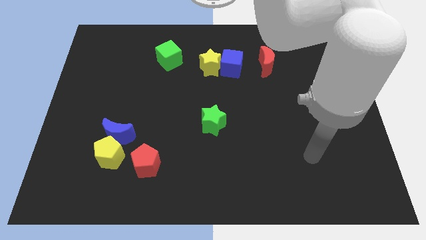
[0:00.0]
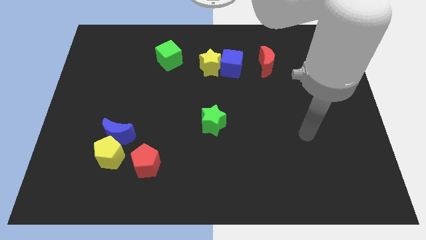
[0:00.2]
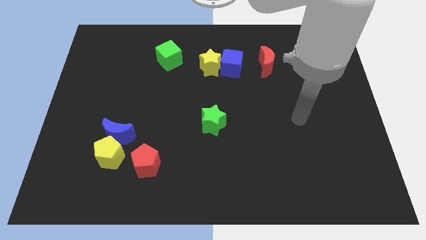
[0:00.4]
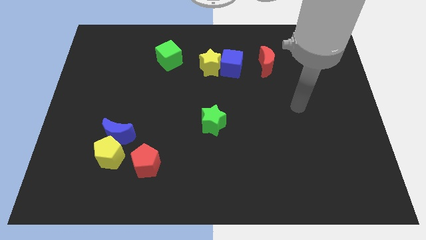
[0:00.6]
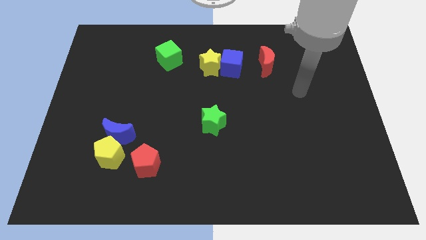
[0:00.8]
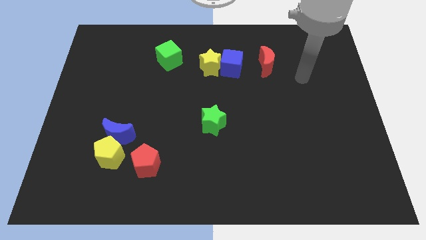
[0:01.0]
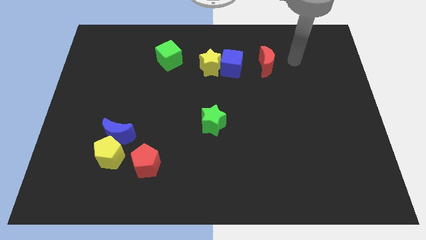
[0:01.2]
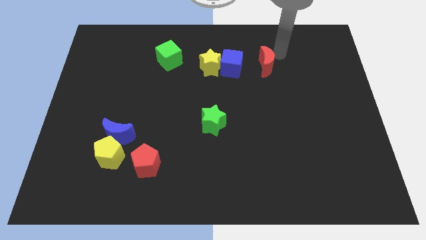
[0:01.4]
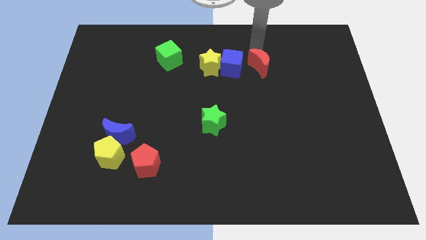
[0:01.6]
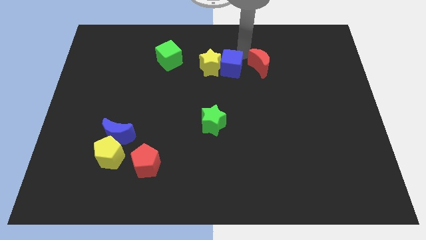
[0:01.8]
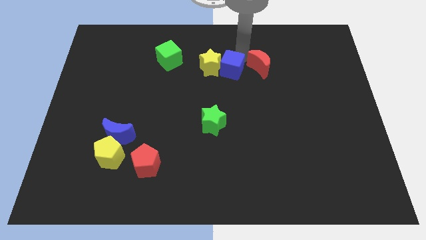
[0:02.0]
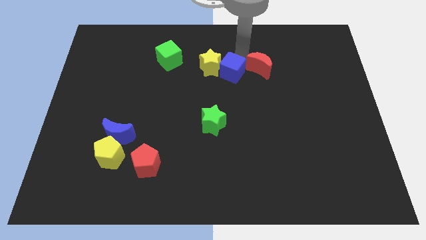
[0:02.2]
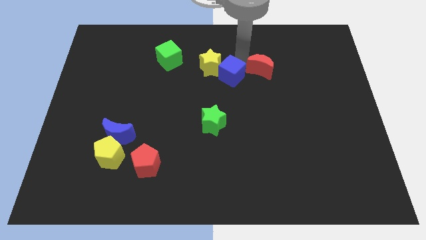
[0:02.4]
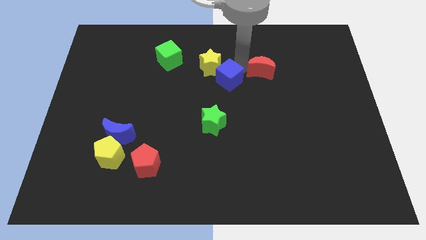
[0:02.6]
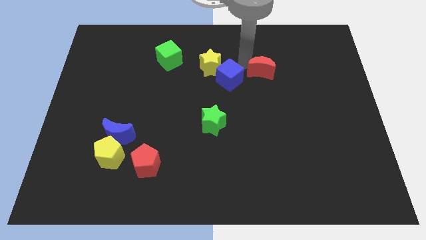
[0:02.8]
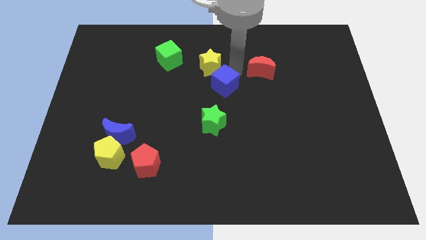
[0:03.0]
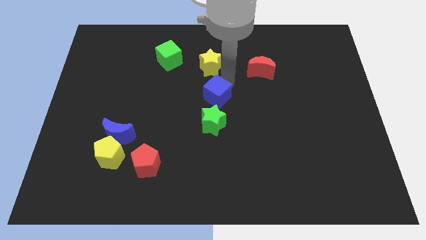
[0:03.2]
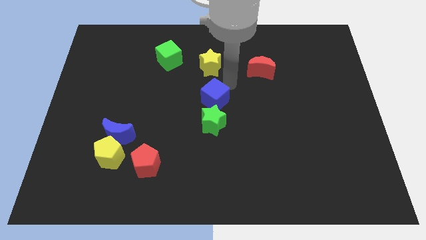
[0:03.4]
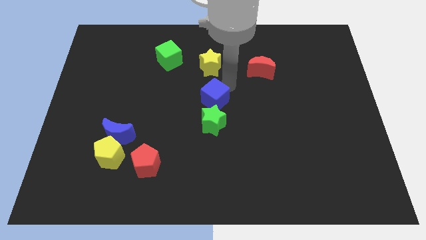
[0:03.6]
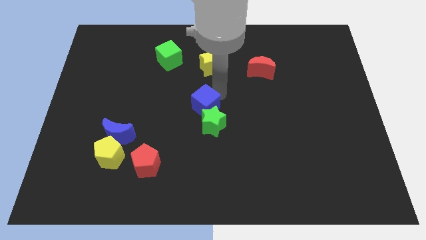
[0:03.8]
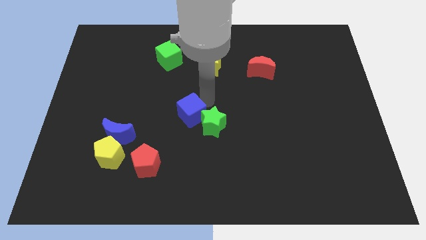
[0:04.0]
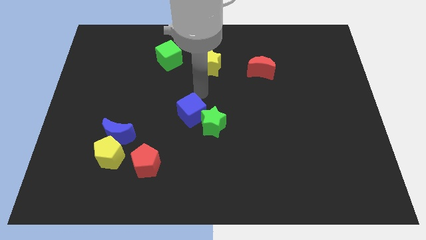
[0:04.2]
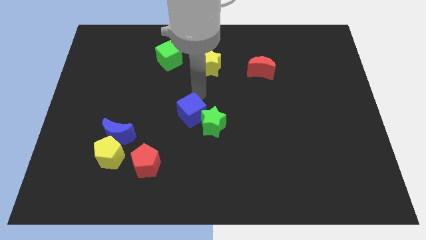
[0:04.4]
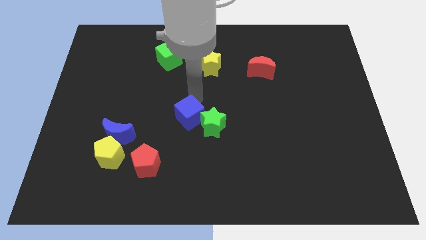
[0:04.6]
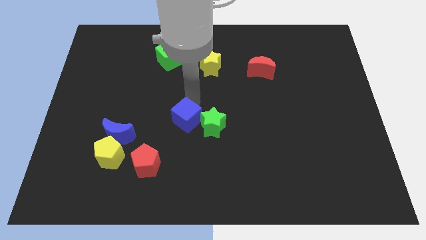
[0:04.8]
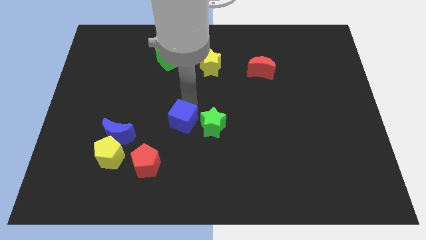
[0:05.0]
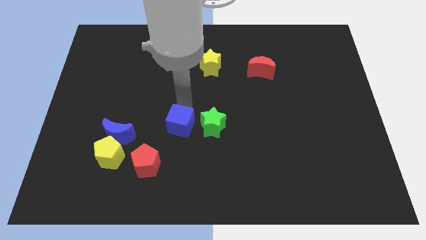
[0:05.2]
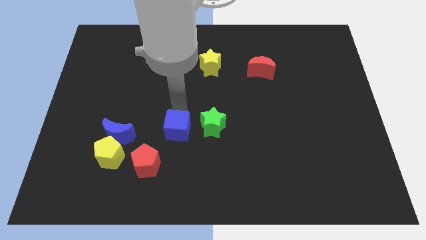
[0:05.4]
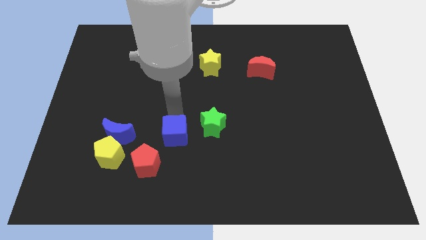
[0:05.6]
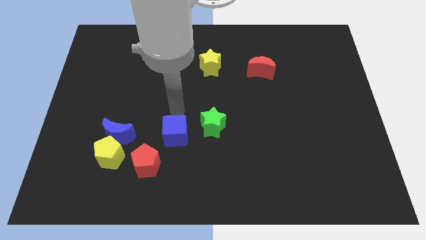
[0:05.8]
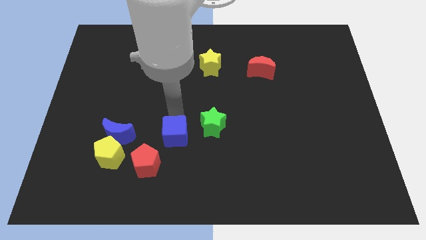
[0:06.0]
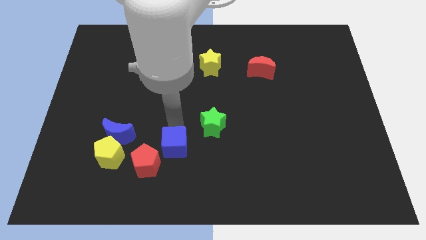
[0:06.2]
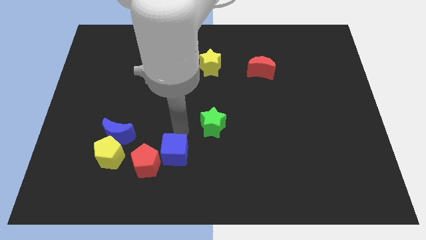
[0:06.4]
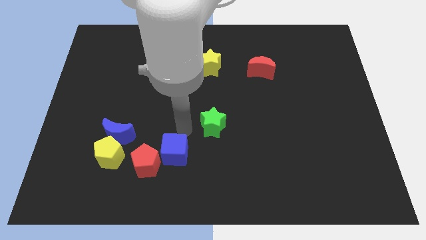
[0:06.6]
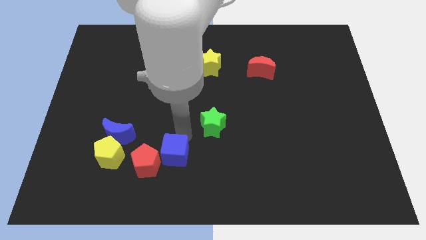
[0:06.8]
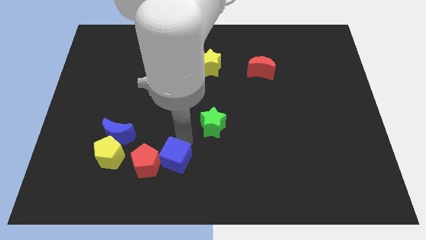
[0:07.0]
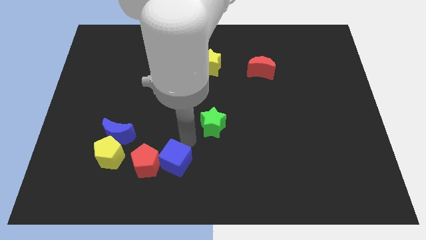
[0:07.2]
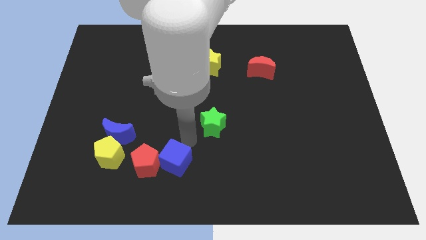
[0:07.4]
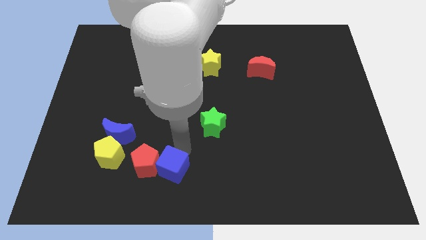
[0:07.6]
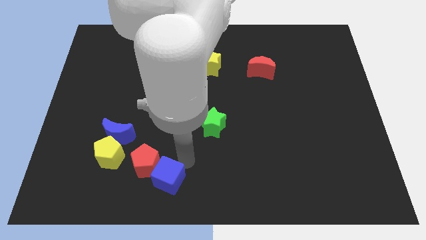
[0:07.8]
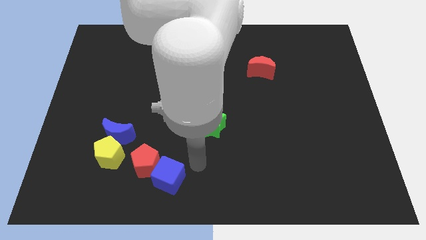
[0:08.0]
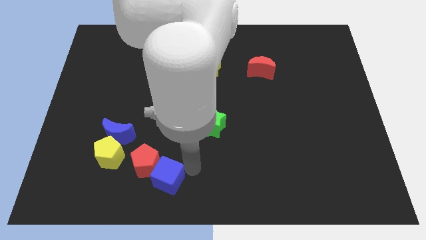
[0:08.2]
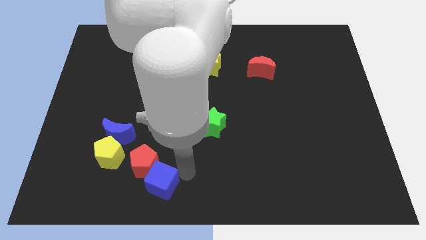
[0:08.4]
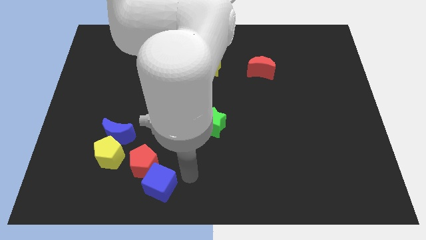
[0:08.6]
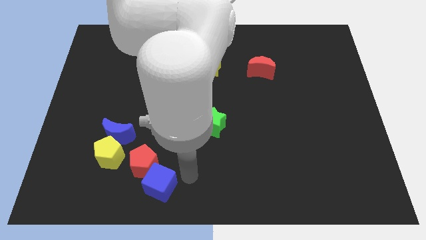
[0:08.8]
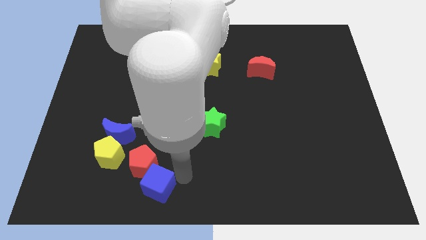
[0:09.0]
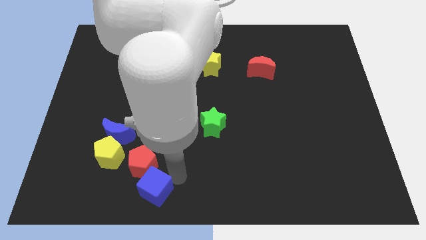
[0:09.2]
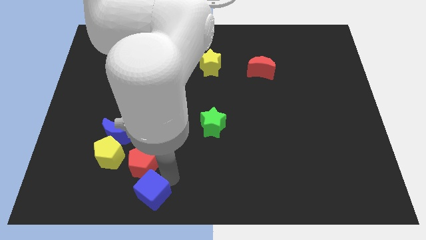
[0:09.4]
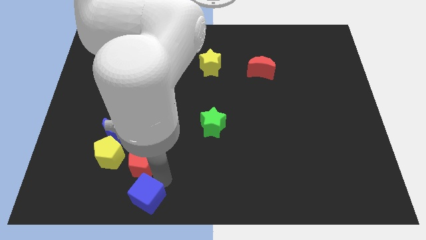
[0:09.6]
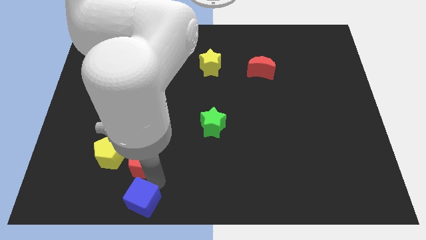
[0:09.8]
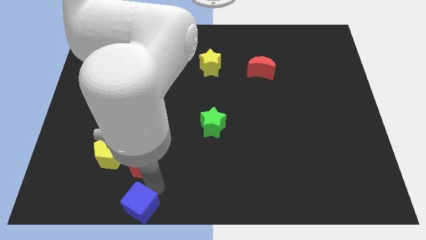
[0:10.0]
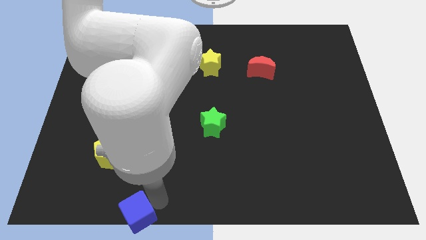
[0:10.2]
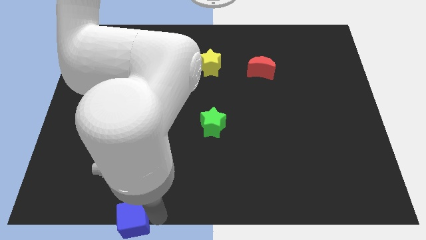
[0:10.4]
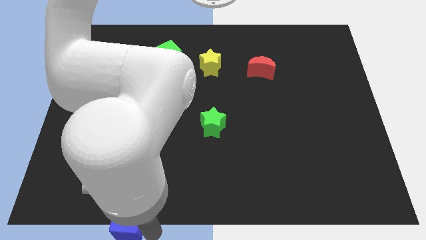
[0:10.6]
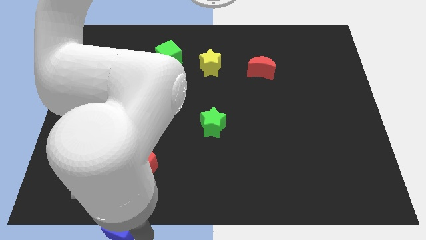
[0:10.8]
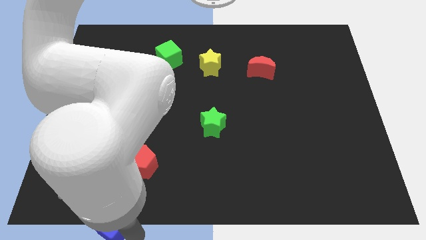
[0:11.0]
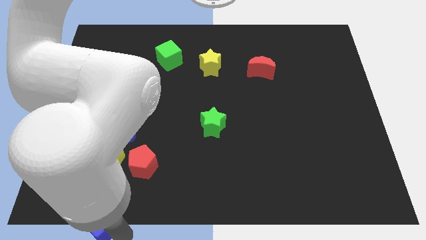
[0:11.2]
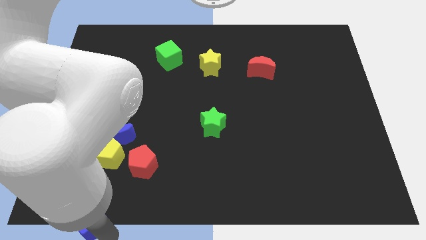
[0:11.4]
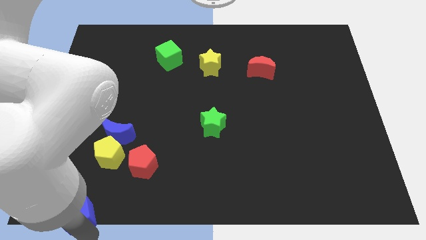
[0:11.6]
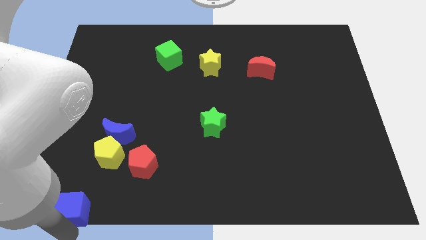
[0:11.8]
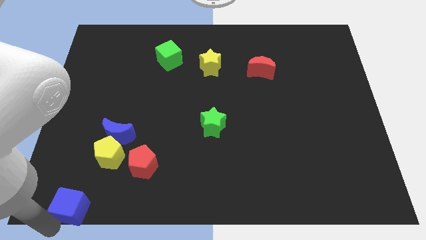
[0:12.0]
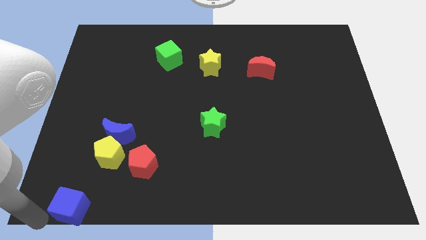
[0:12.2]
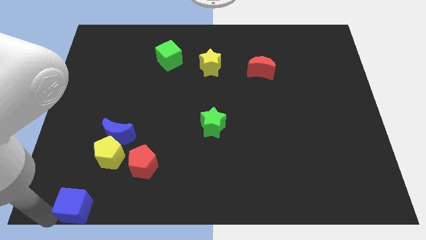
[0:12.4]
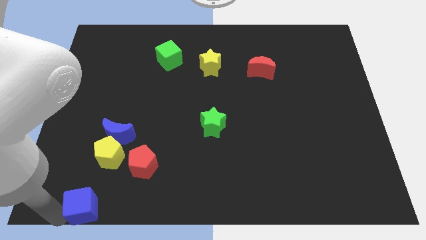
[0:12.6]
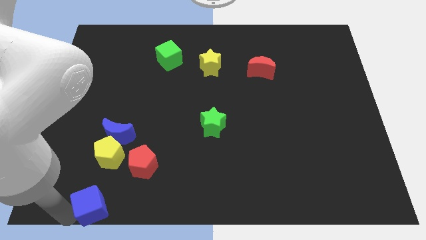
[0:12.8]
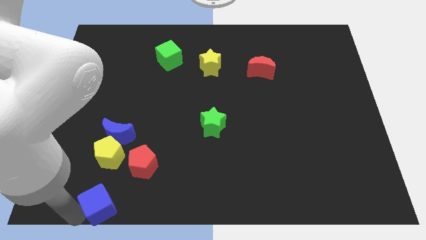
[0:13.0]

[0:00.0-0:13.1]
push the blue cube to the bottom of the blue moon

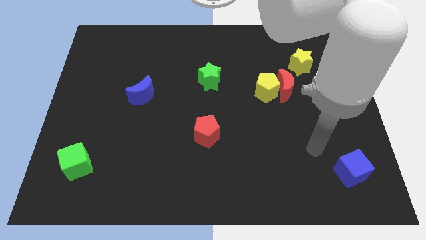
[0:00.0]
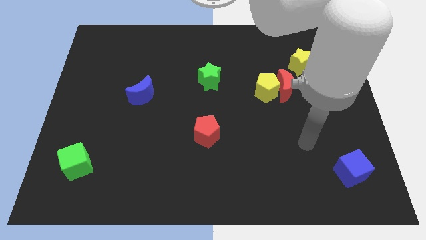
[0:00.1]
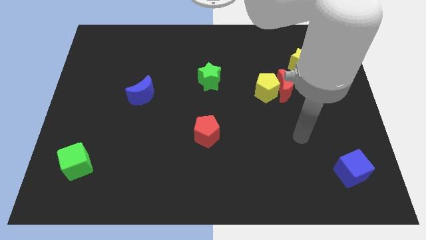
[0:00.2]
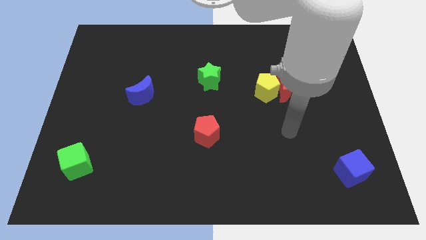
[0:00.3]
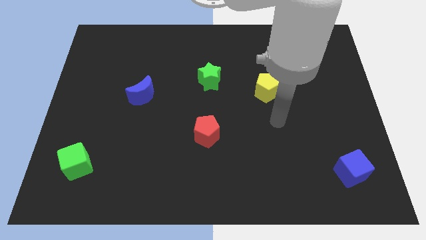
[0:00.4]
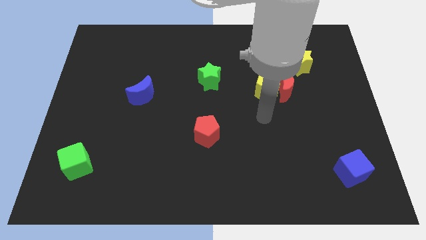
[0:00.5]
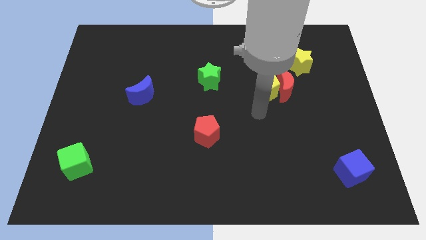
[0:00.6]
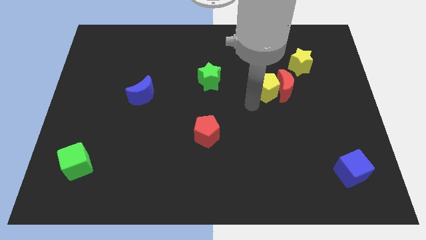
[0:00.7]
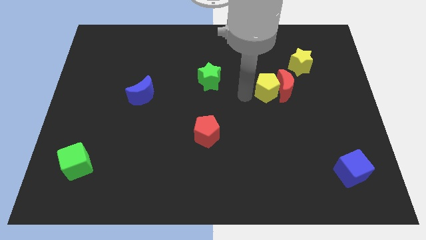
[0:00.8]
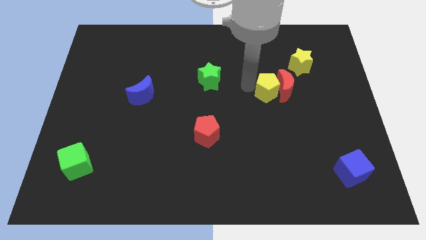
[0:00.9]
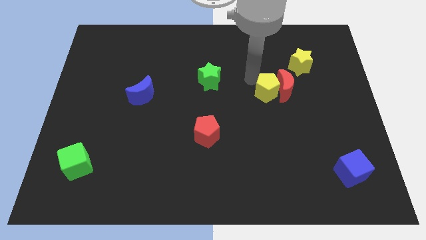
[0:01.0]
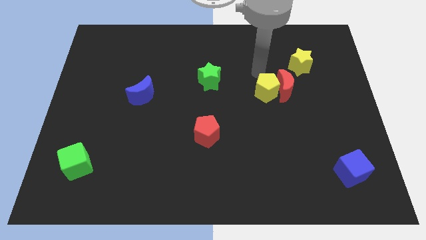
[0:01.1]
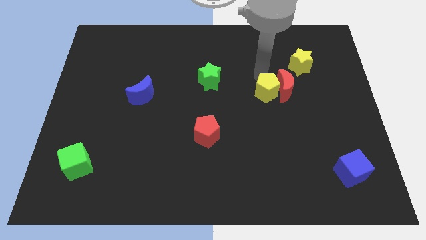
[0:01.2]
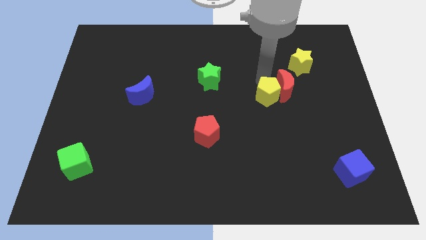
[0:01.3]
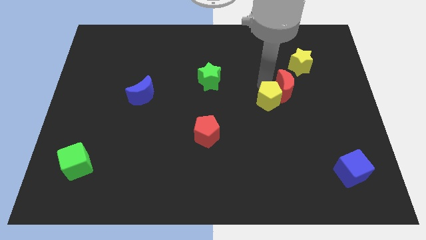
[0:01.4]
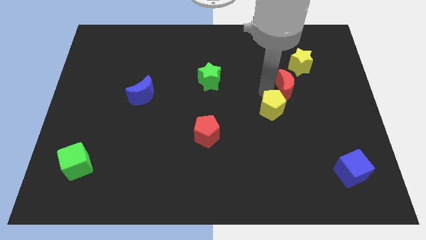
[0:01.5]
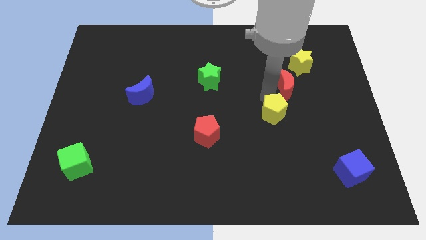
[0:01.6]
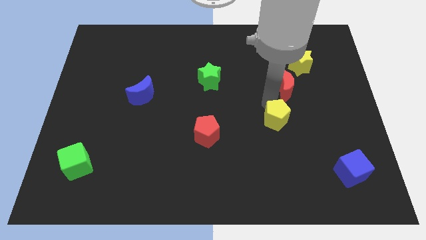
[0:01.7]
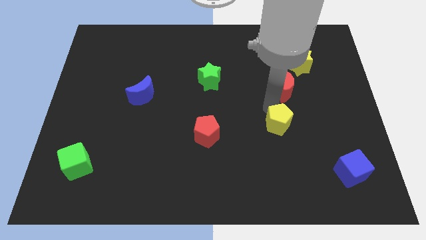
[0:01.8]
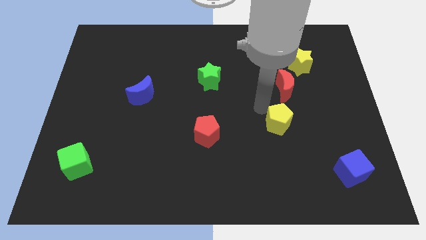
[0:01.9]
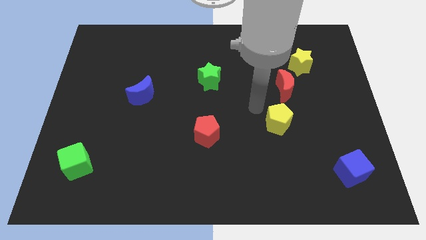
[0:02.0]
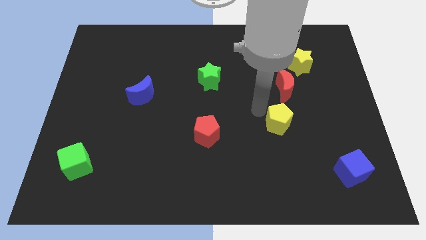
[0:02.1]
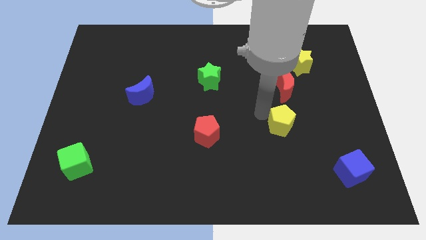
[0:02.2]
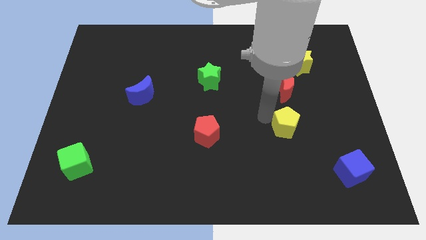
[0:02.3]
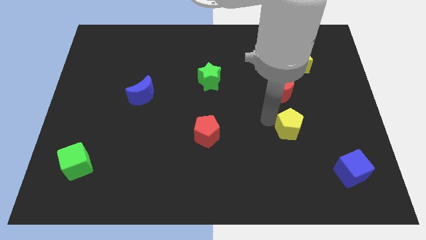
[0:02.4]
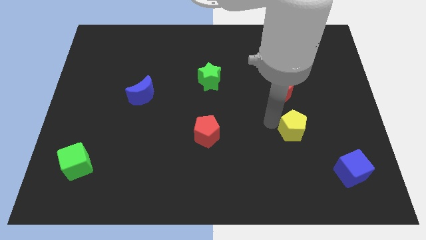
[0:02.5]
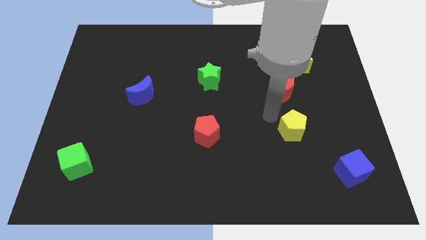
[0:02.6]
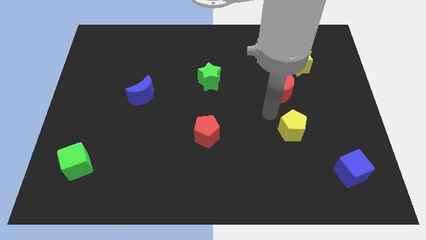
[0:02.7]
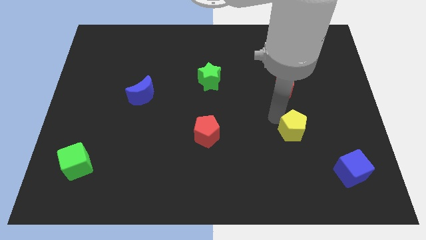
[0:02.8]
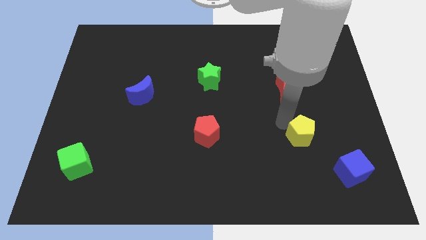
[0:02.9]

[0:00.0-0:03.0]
move the yellow pentagon to the top left of the blue cube
